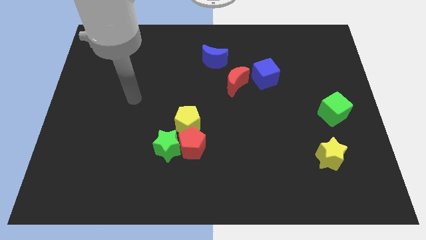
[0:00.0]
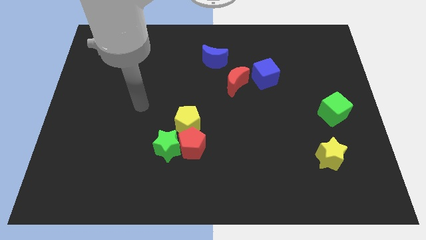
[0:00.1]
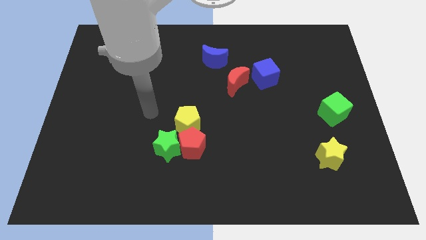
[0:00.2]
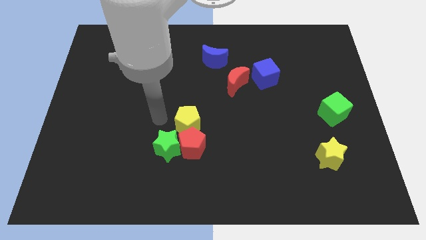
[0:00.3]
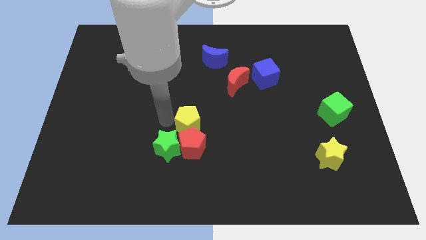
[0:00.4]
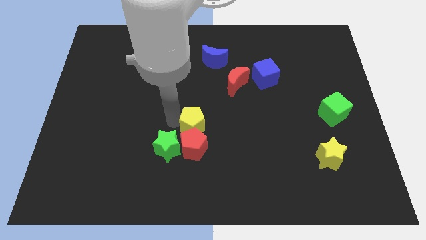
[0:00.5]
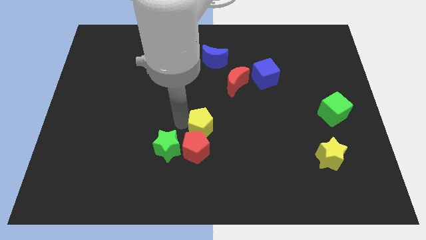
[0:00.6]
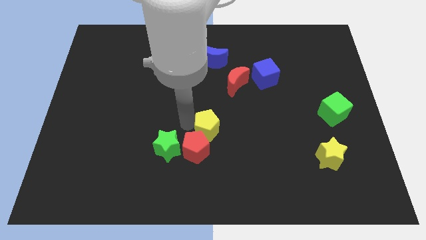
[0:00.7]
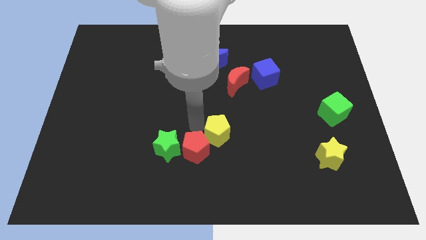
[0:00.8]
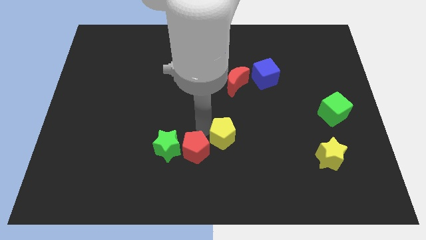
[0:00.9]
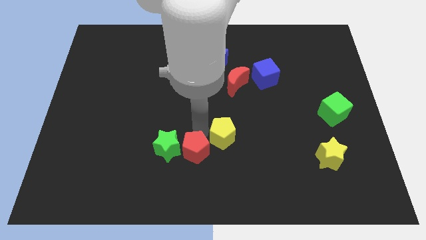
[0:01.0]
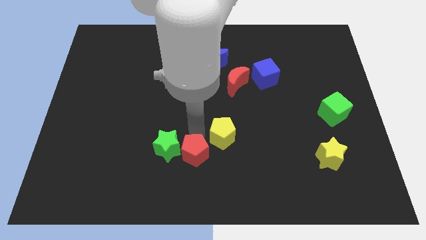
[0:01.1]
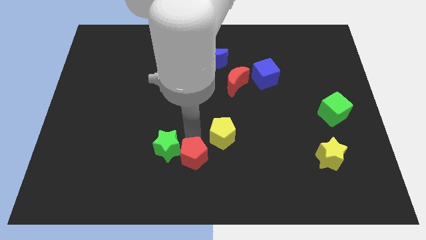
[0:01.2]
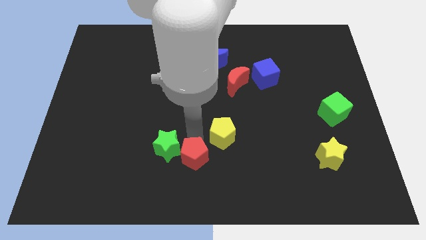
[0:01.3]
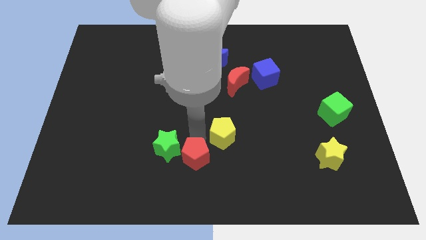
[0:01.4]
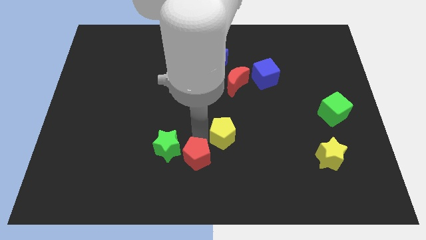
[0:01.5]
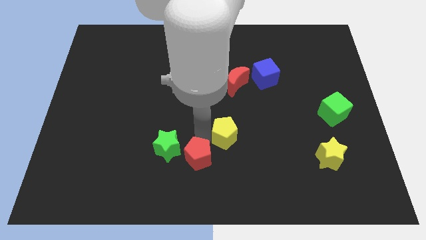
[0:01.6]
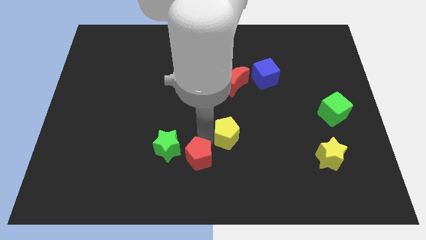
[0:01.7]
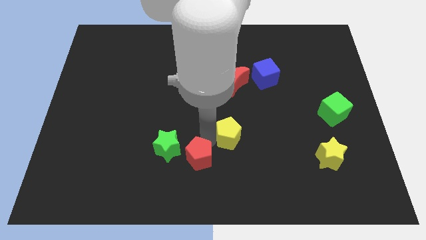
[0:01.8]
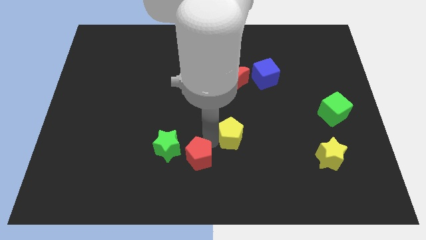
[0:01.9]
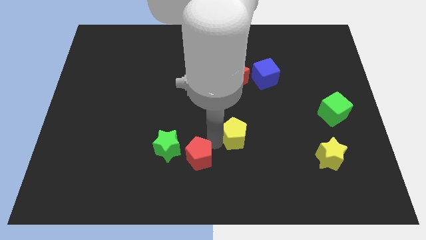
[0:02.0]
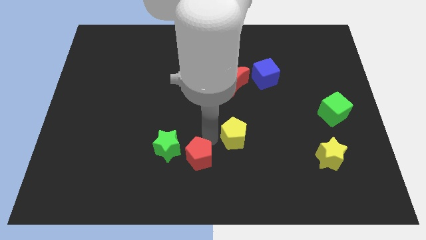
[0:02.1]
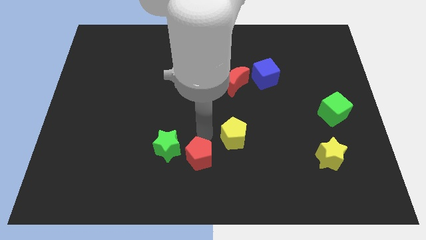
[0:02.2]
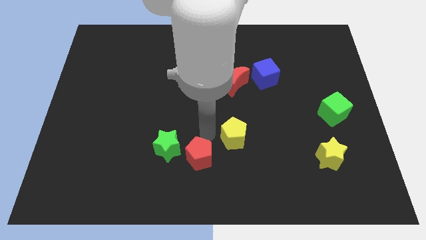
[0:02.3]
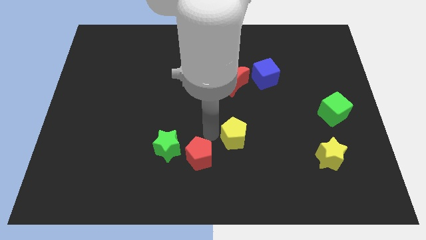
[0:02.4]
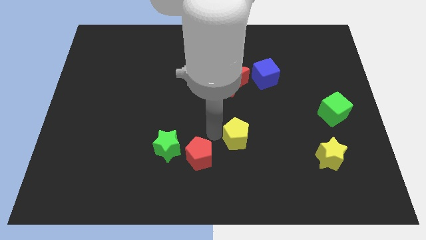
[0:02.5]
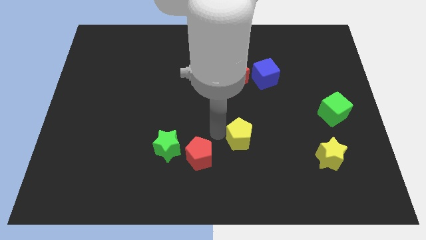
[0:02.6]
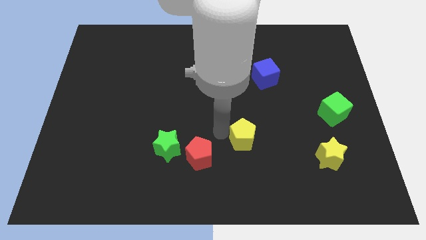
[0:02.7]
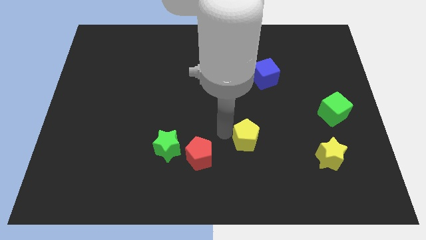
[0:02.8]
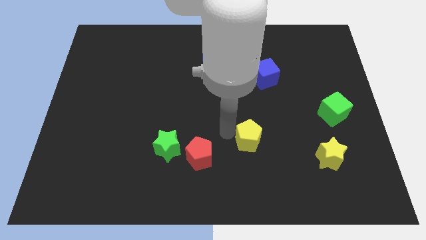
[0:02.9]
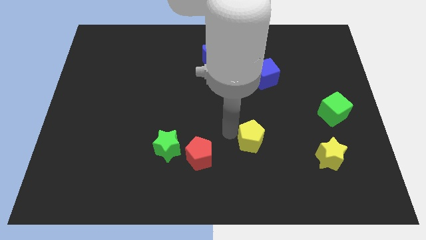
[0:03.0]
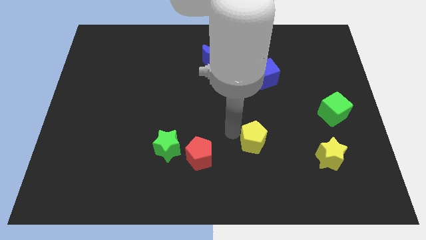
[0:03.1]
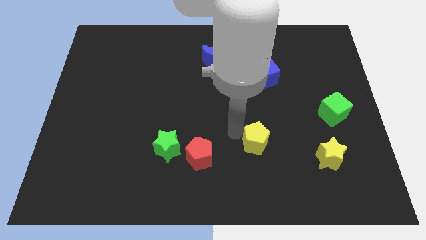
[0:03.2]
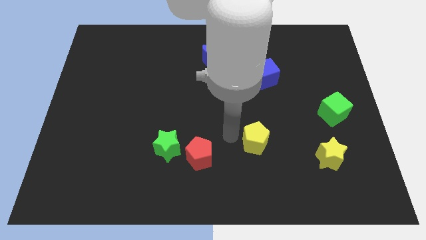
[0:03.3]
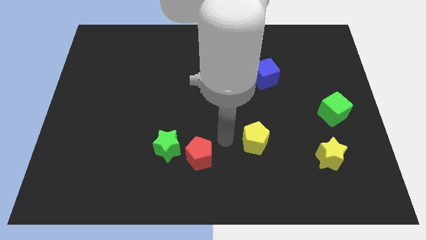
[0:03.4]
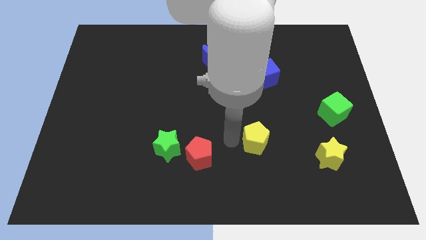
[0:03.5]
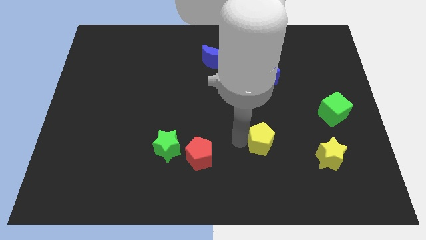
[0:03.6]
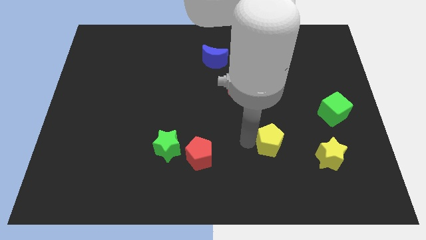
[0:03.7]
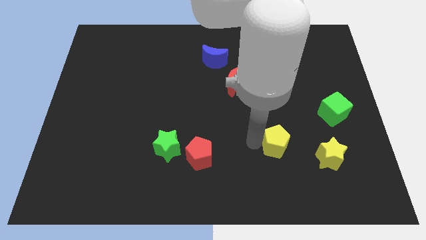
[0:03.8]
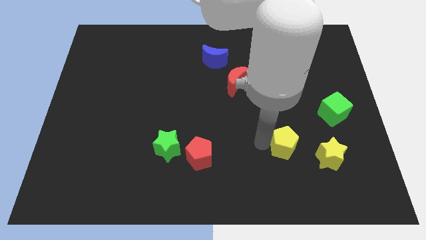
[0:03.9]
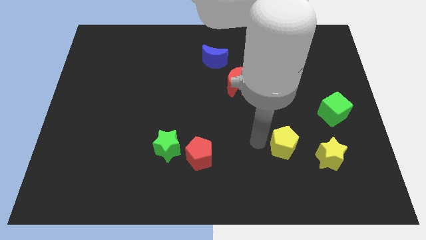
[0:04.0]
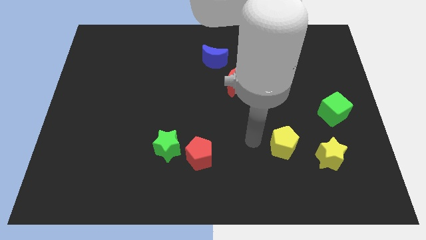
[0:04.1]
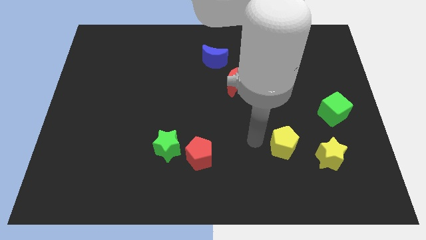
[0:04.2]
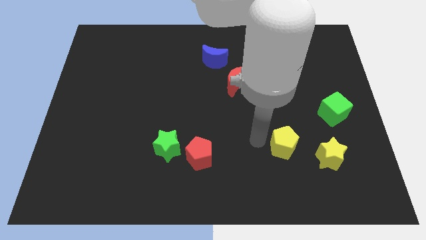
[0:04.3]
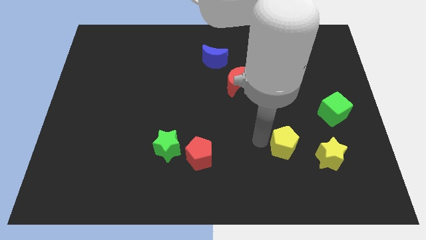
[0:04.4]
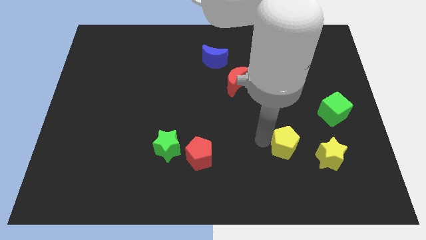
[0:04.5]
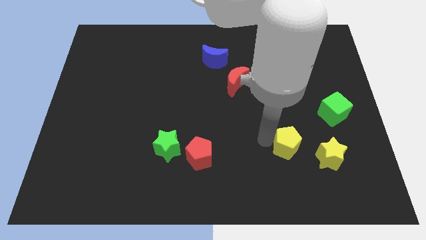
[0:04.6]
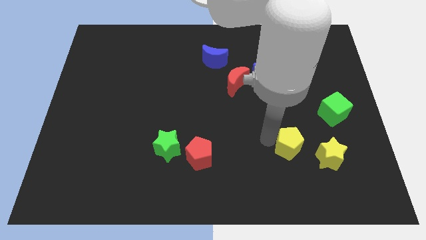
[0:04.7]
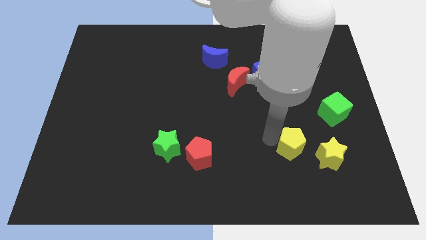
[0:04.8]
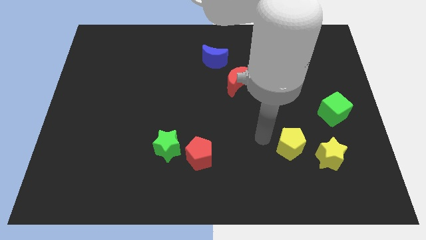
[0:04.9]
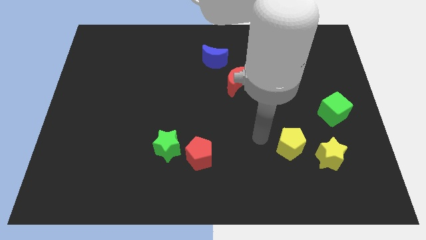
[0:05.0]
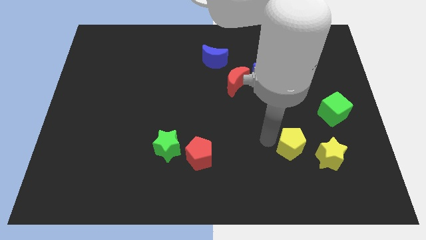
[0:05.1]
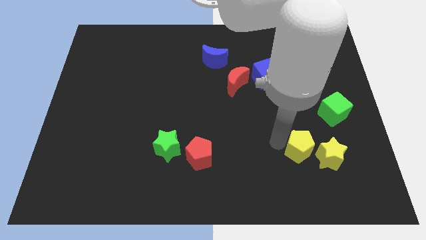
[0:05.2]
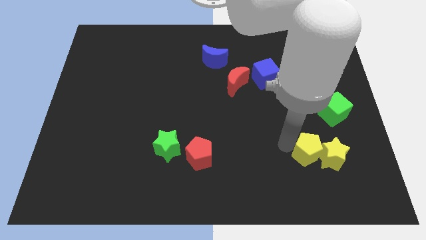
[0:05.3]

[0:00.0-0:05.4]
slide the yellow pentagon towards the yellow star

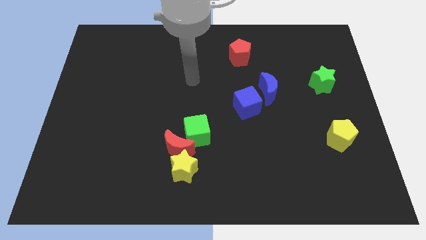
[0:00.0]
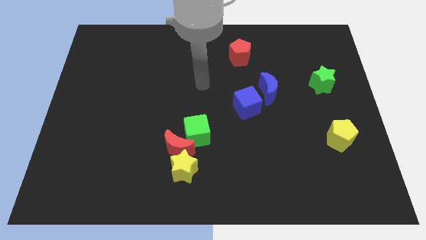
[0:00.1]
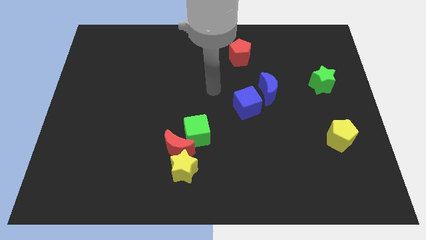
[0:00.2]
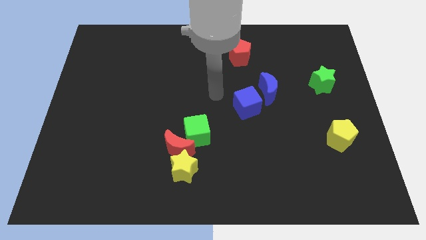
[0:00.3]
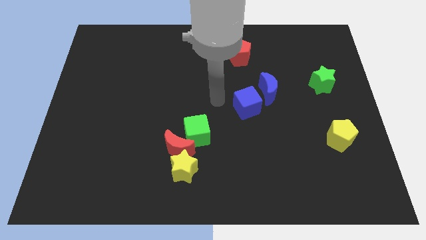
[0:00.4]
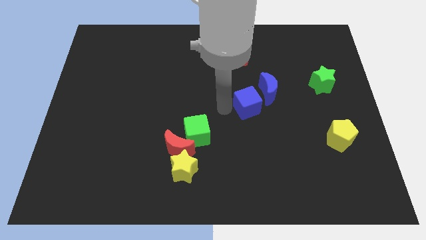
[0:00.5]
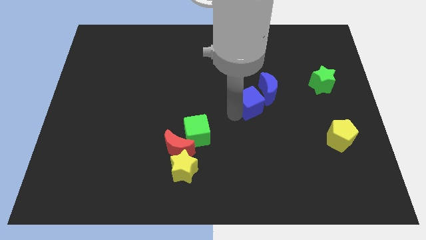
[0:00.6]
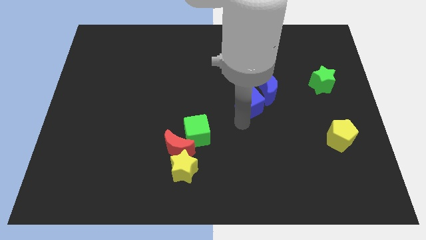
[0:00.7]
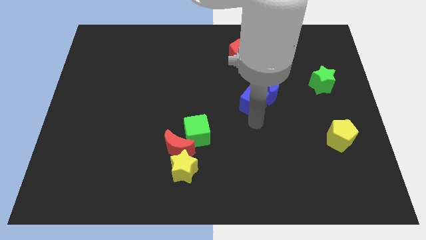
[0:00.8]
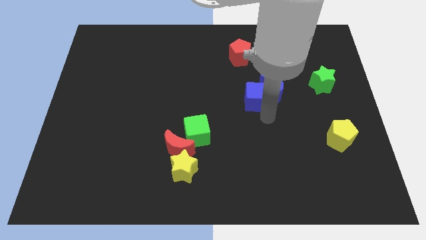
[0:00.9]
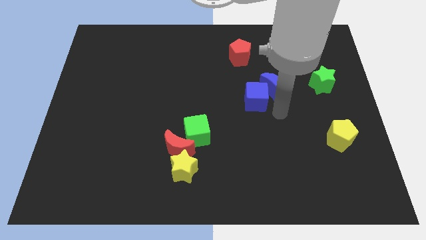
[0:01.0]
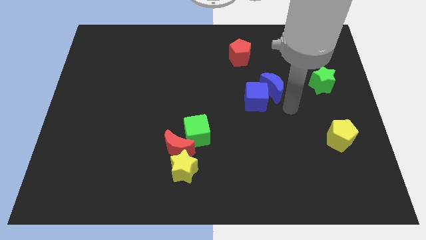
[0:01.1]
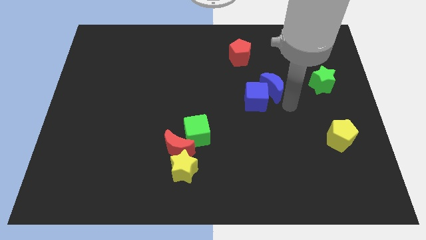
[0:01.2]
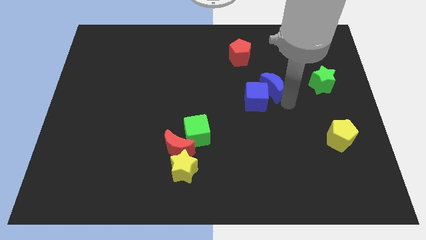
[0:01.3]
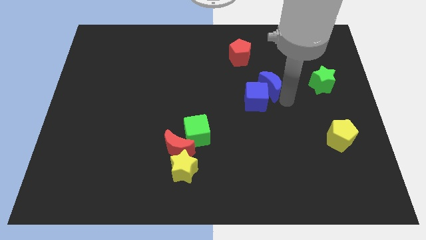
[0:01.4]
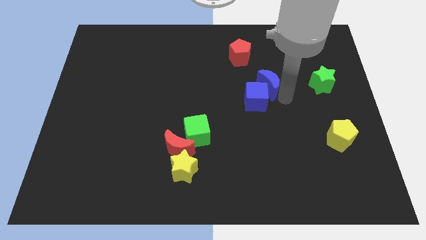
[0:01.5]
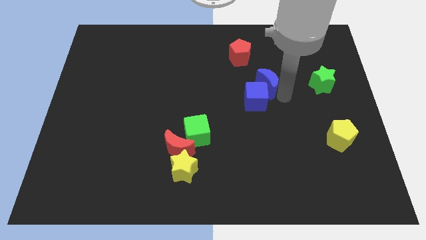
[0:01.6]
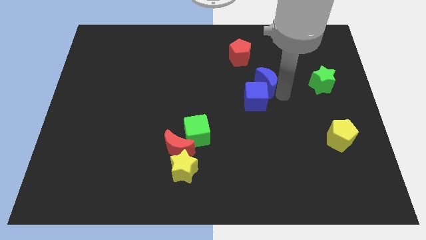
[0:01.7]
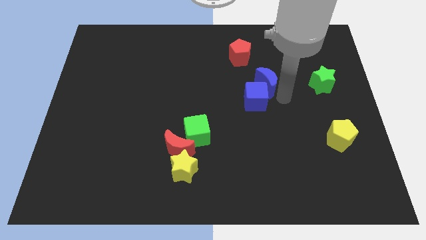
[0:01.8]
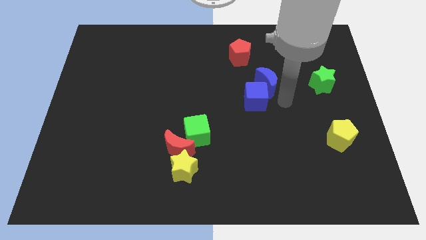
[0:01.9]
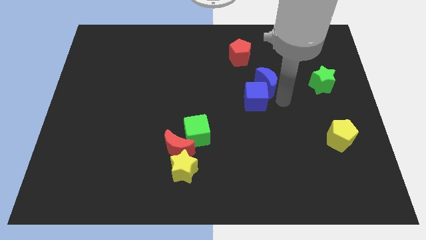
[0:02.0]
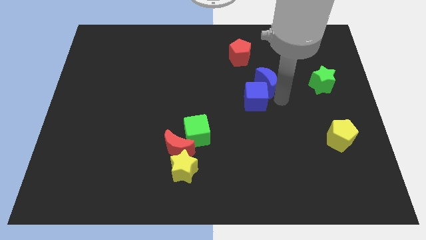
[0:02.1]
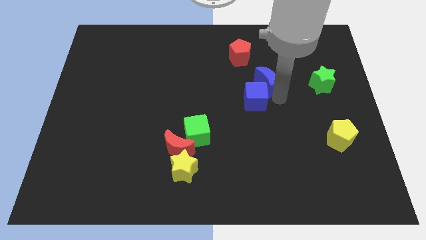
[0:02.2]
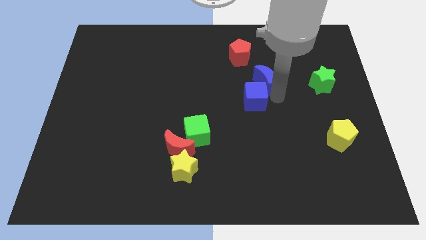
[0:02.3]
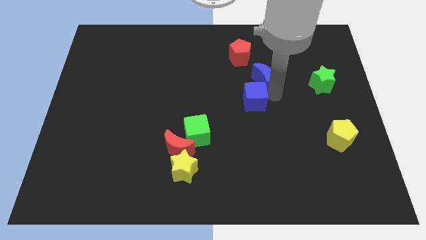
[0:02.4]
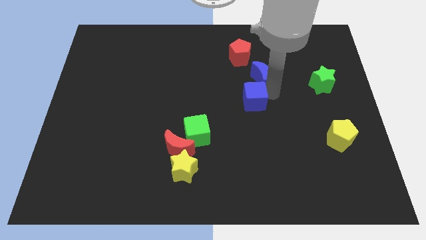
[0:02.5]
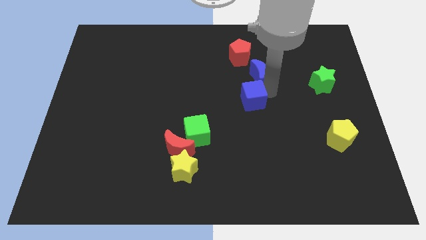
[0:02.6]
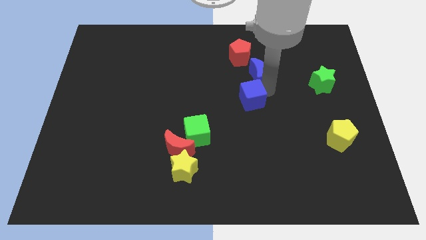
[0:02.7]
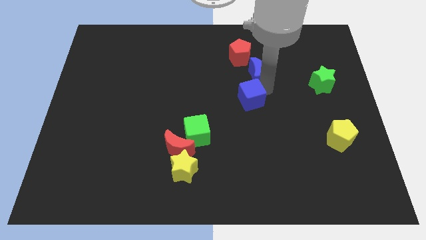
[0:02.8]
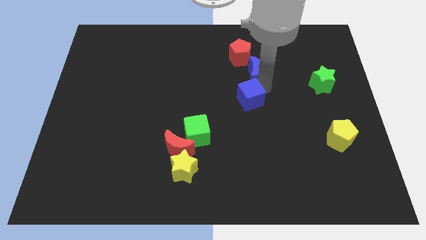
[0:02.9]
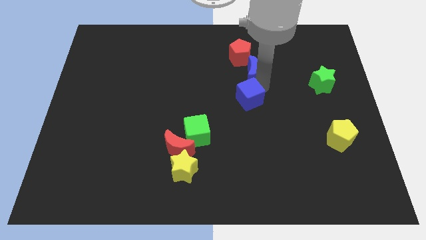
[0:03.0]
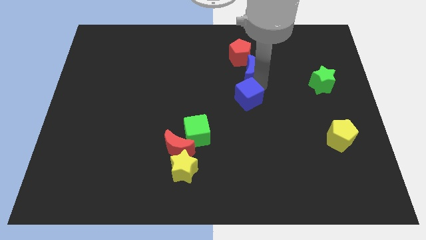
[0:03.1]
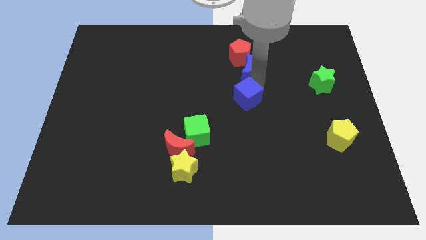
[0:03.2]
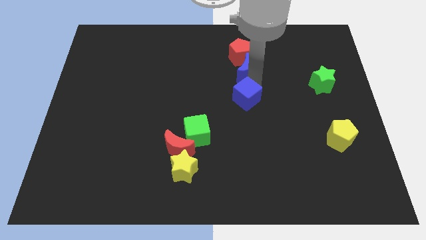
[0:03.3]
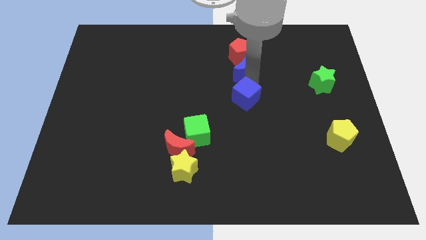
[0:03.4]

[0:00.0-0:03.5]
move the blue moon next to the red pentagon
